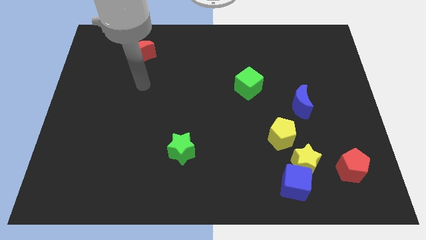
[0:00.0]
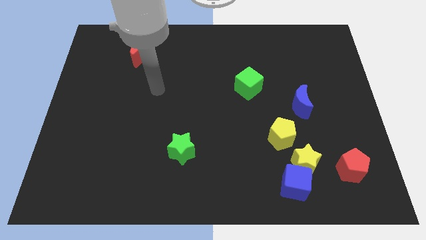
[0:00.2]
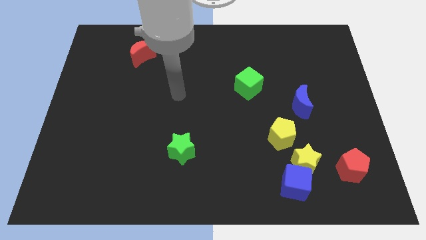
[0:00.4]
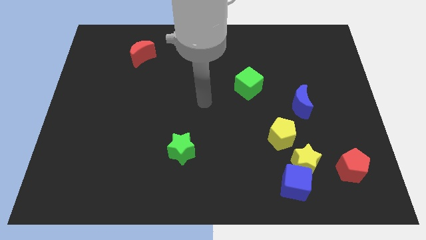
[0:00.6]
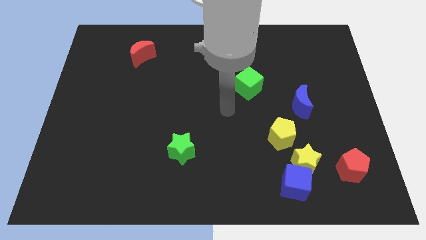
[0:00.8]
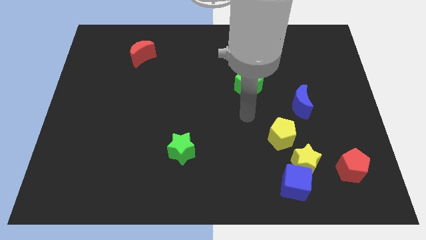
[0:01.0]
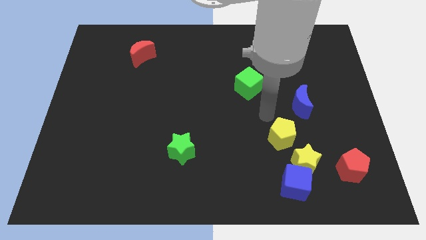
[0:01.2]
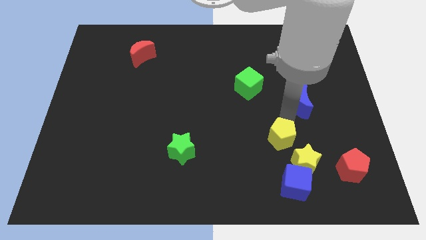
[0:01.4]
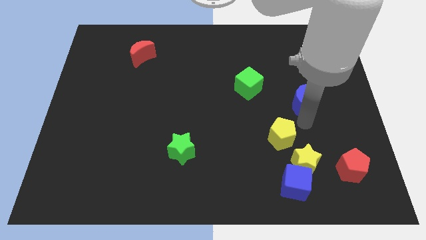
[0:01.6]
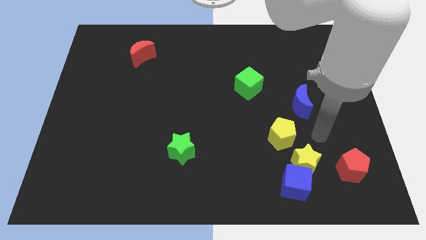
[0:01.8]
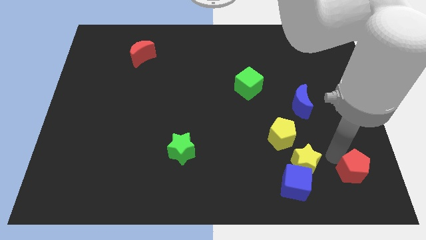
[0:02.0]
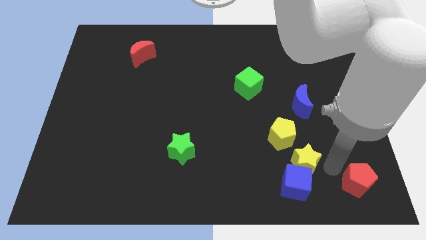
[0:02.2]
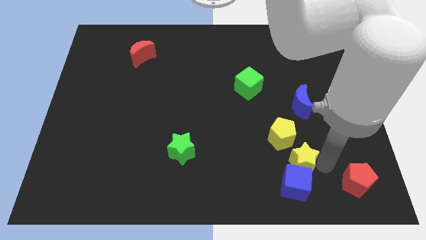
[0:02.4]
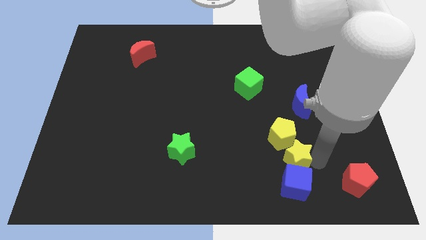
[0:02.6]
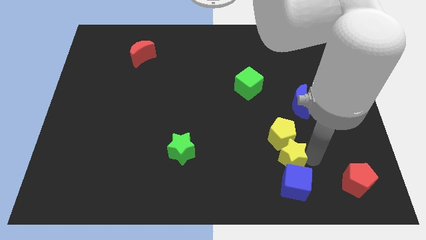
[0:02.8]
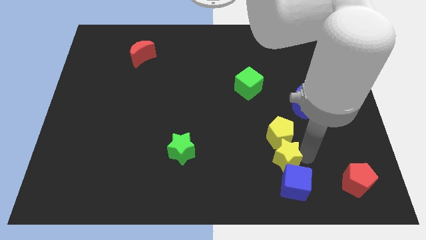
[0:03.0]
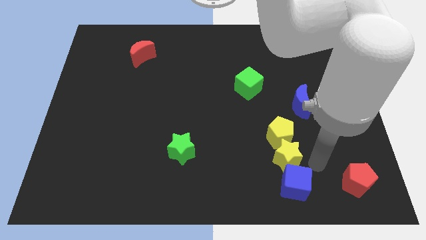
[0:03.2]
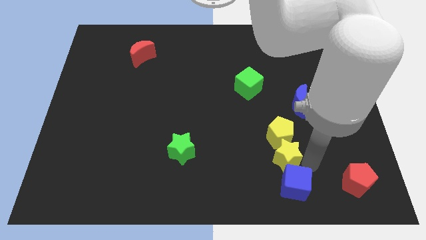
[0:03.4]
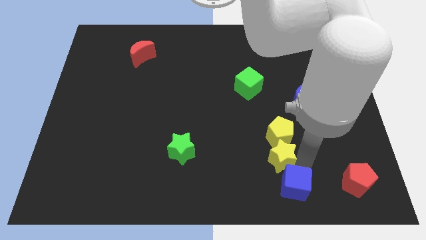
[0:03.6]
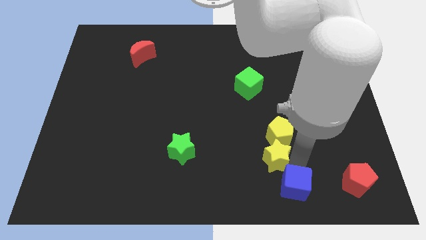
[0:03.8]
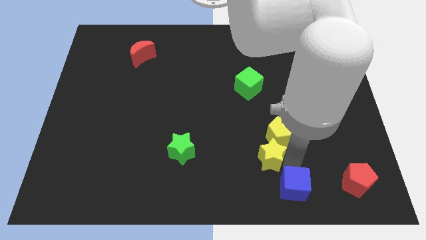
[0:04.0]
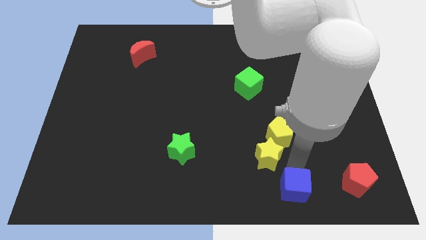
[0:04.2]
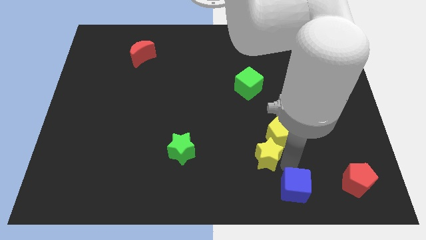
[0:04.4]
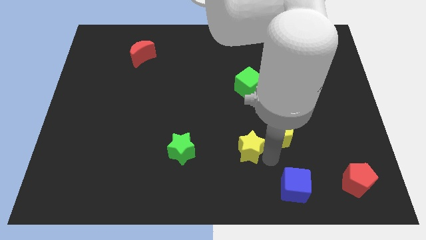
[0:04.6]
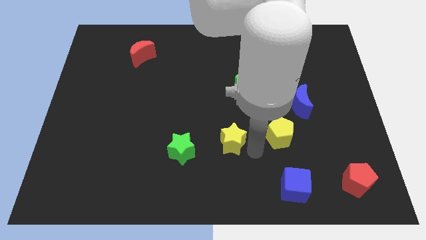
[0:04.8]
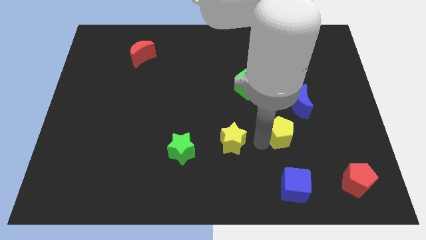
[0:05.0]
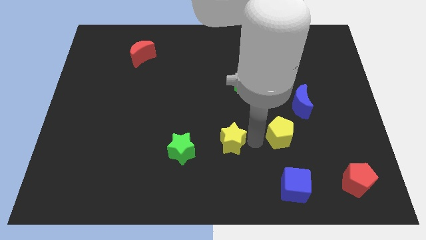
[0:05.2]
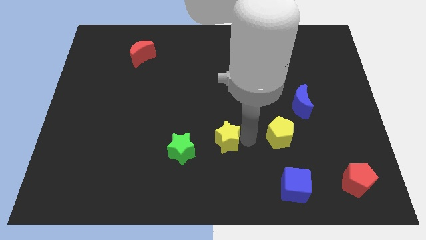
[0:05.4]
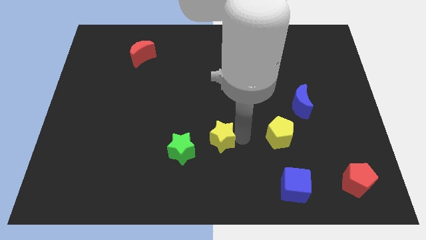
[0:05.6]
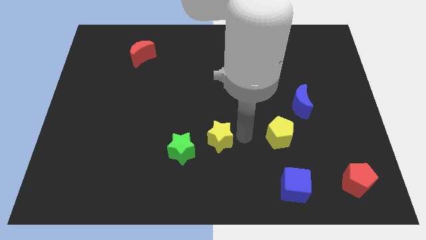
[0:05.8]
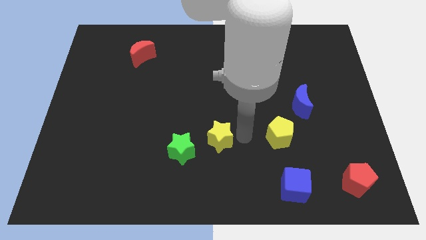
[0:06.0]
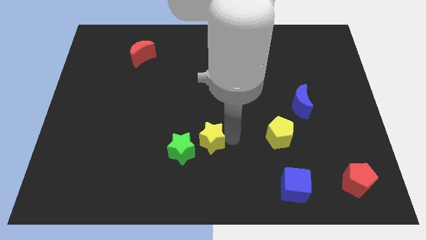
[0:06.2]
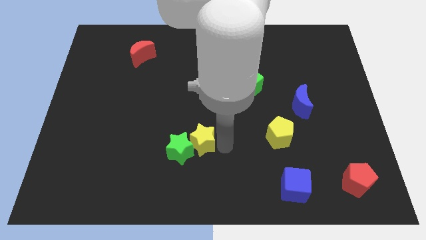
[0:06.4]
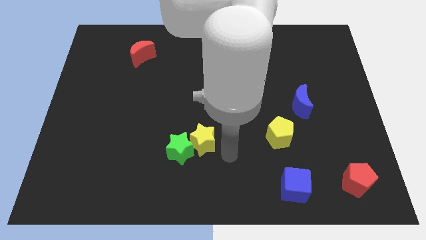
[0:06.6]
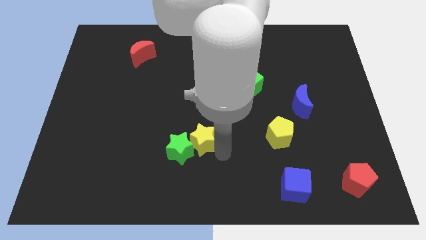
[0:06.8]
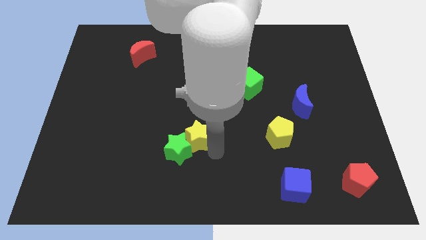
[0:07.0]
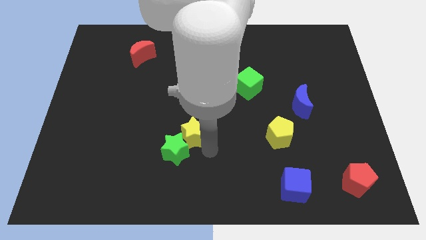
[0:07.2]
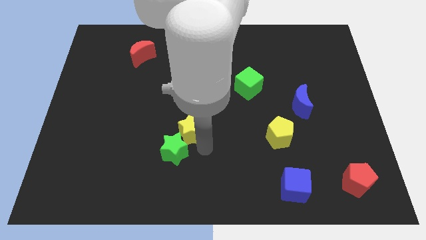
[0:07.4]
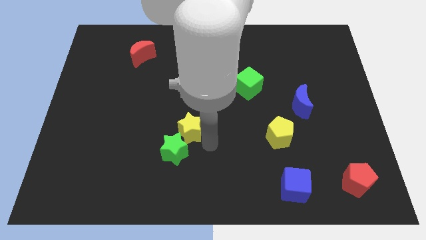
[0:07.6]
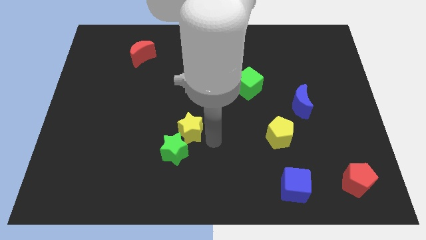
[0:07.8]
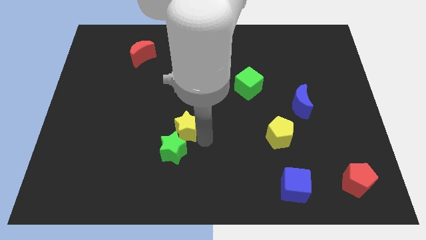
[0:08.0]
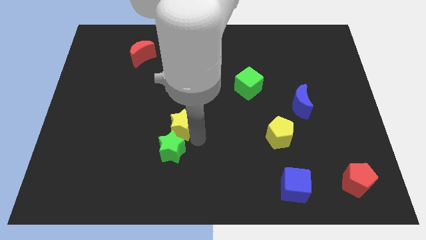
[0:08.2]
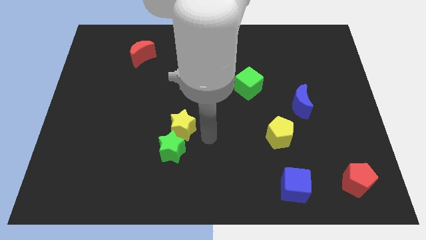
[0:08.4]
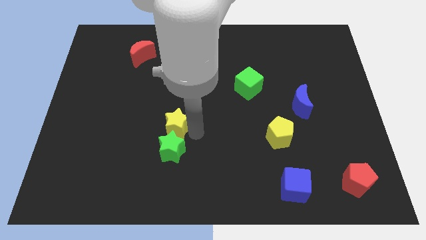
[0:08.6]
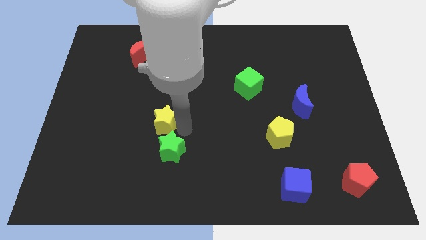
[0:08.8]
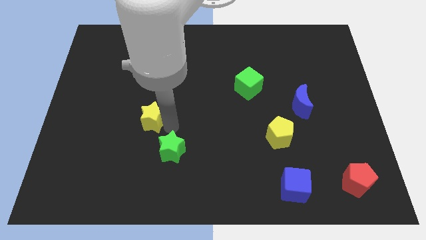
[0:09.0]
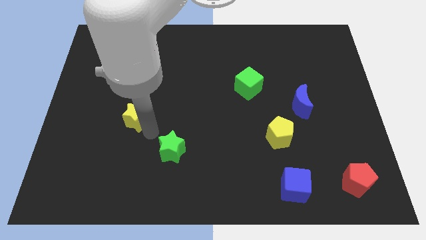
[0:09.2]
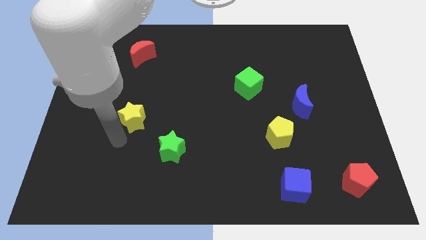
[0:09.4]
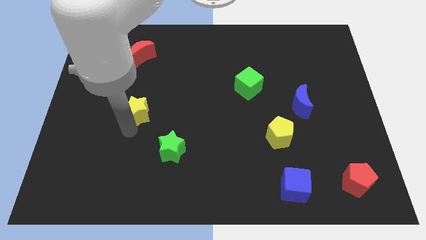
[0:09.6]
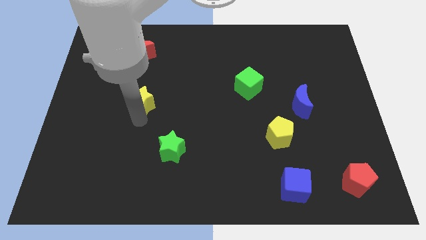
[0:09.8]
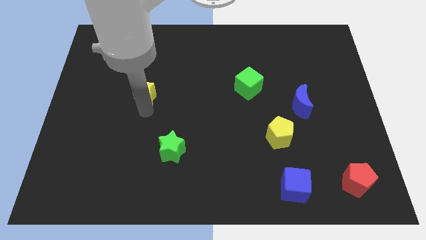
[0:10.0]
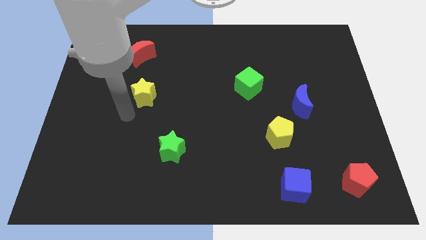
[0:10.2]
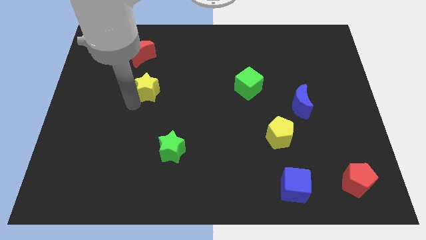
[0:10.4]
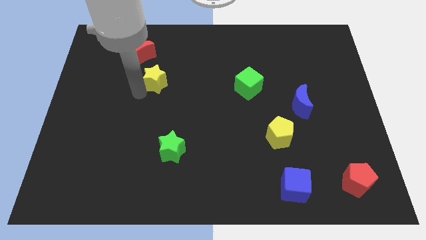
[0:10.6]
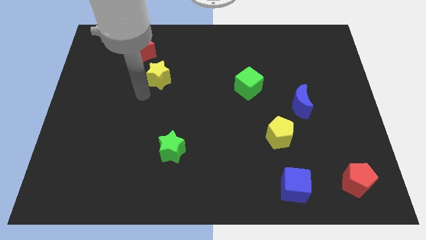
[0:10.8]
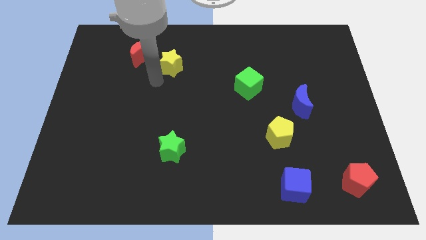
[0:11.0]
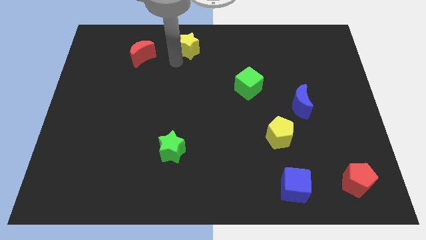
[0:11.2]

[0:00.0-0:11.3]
put the yellow star to the top

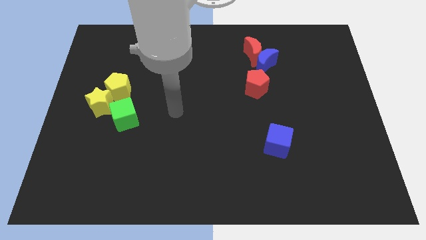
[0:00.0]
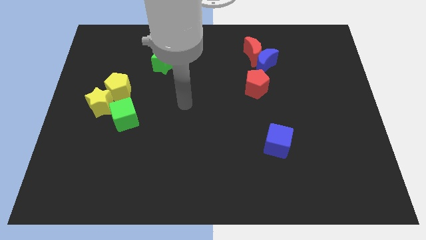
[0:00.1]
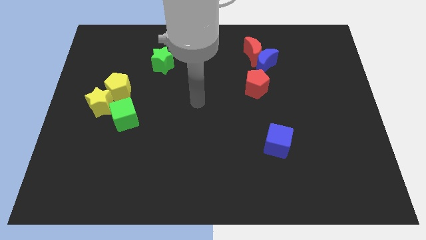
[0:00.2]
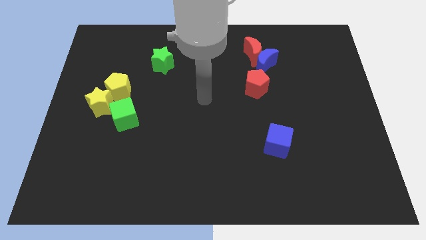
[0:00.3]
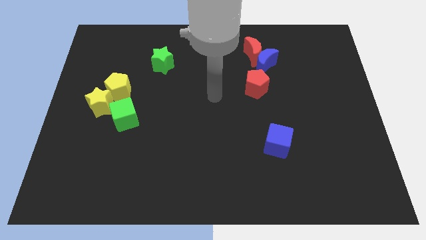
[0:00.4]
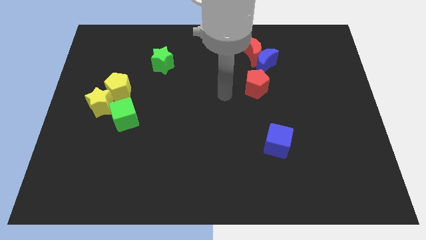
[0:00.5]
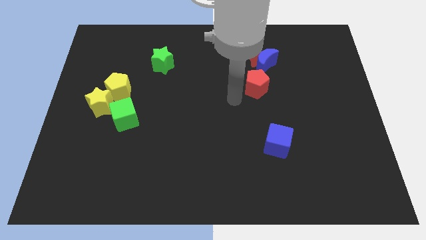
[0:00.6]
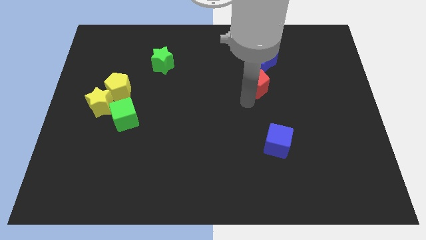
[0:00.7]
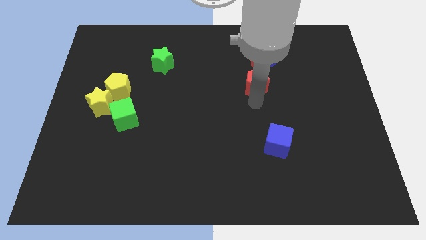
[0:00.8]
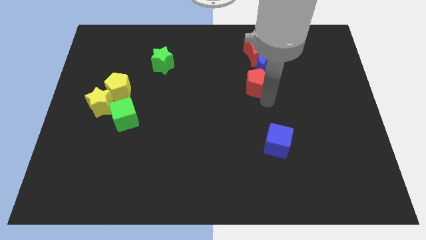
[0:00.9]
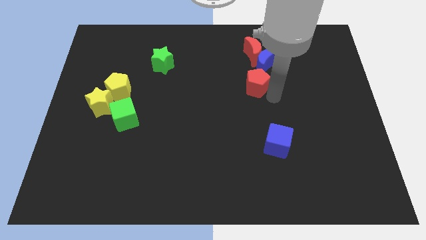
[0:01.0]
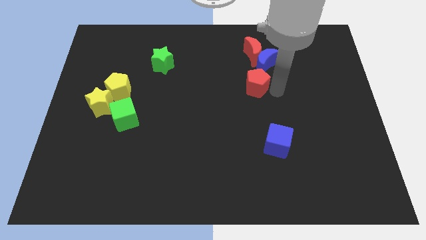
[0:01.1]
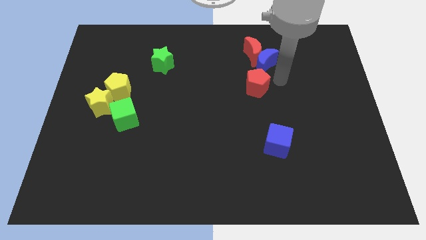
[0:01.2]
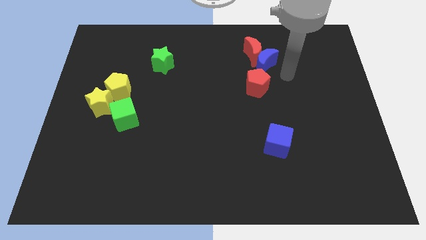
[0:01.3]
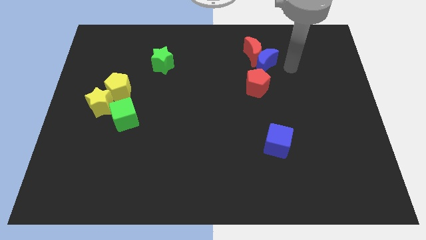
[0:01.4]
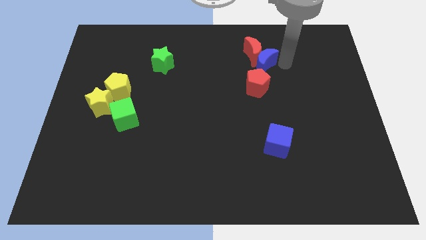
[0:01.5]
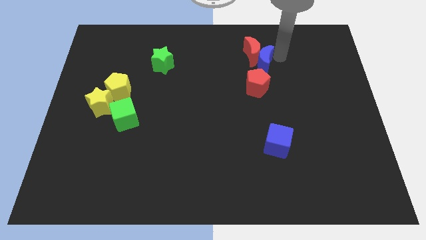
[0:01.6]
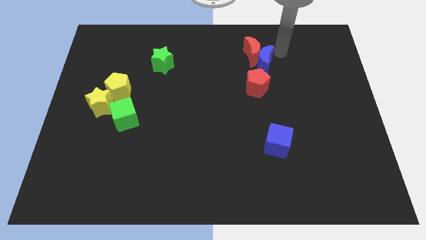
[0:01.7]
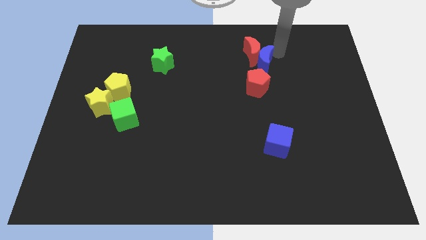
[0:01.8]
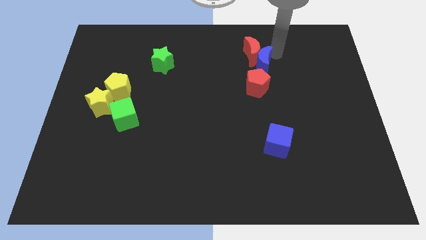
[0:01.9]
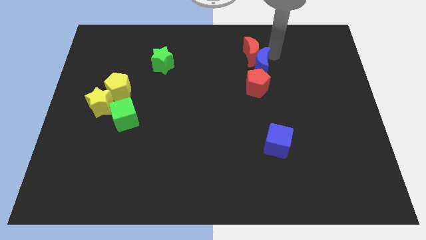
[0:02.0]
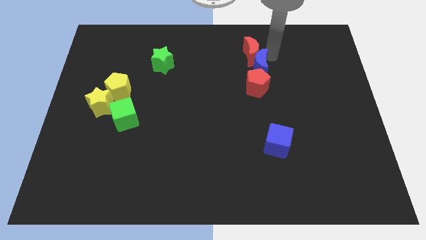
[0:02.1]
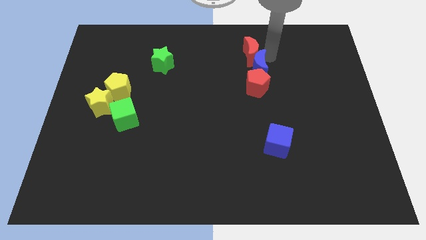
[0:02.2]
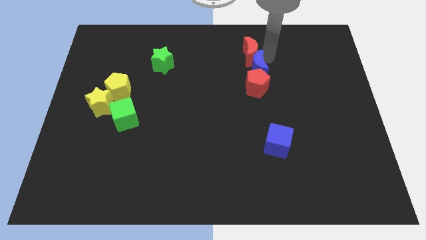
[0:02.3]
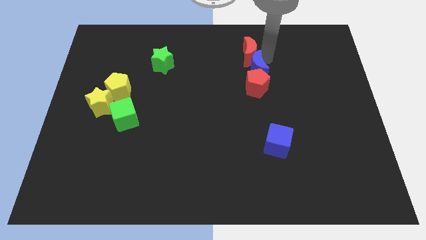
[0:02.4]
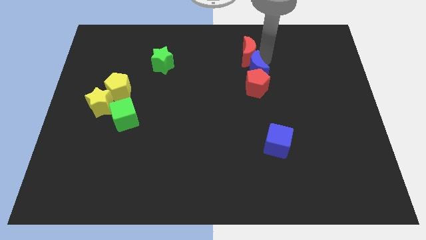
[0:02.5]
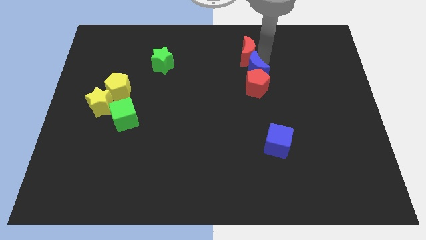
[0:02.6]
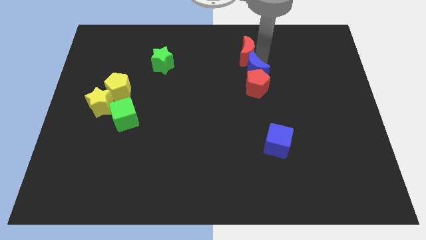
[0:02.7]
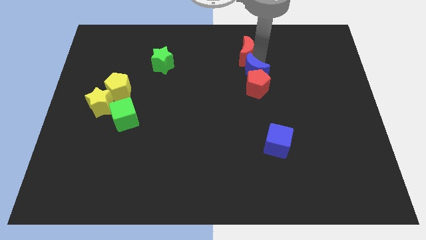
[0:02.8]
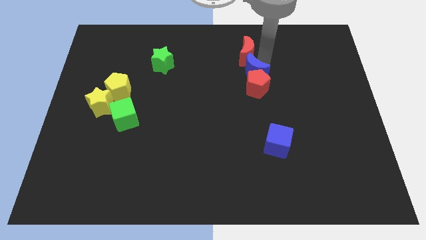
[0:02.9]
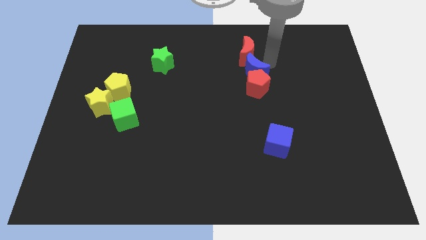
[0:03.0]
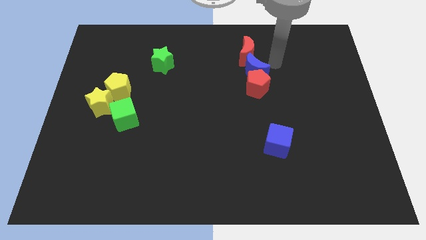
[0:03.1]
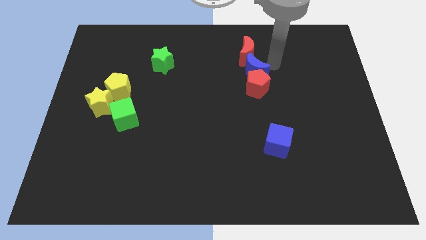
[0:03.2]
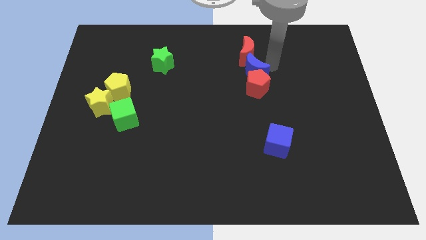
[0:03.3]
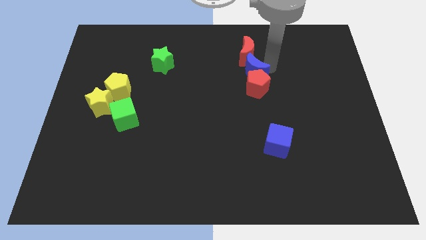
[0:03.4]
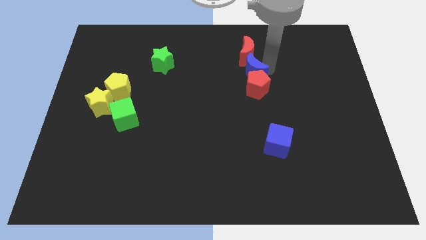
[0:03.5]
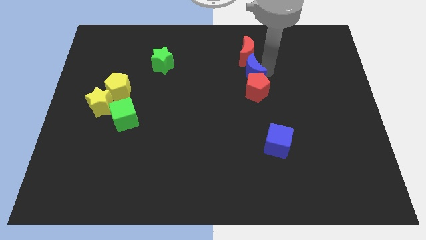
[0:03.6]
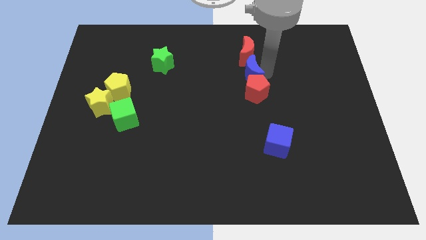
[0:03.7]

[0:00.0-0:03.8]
slide the blue moon to the middle of the board
